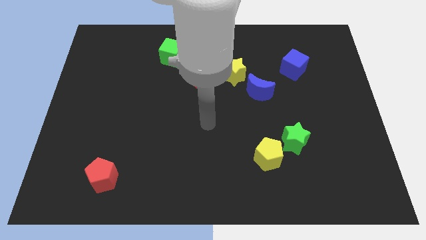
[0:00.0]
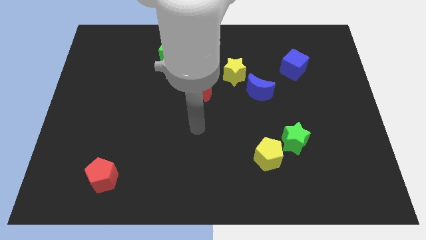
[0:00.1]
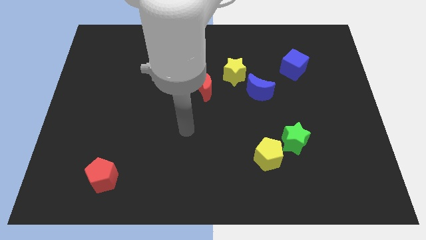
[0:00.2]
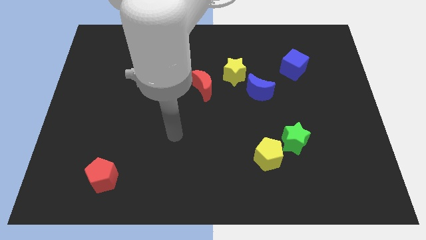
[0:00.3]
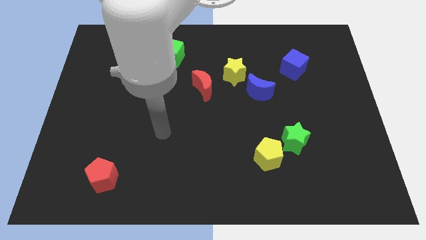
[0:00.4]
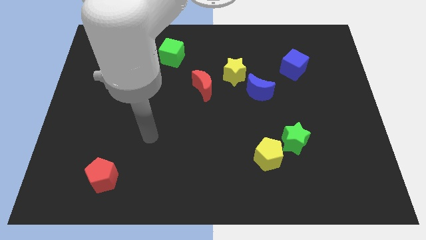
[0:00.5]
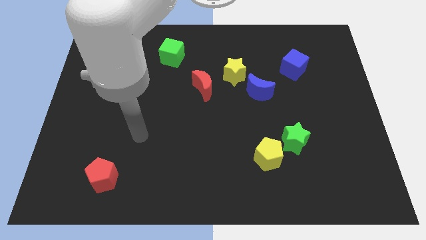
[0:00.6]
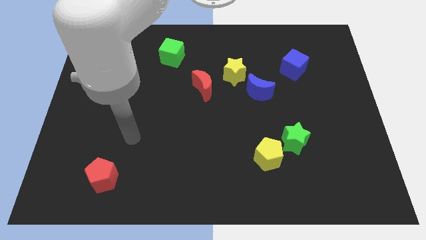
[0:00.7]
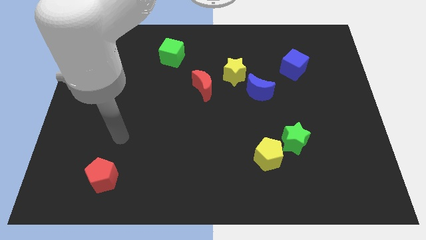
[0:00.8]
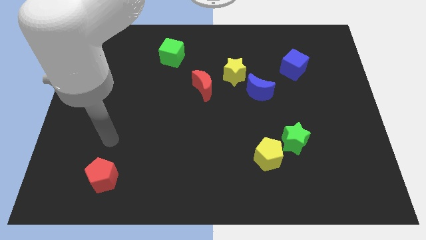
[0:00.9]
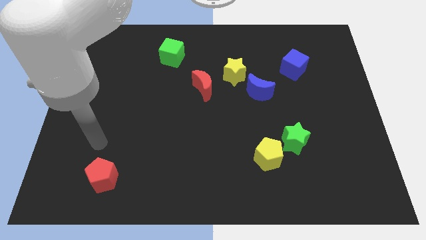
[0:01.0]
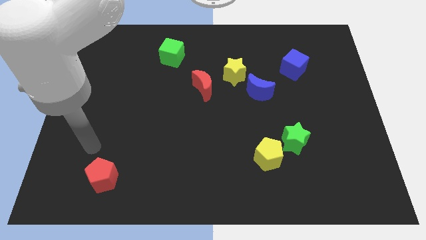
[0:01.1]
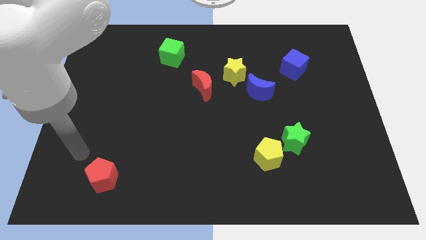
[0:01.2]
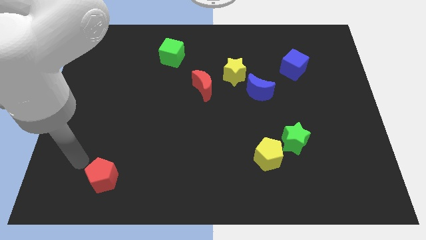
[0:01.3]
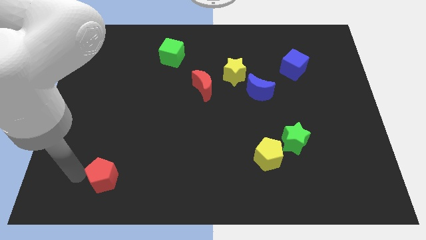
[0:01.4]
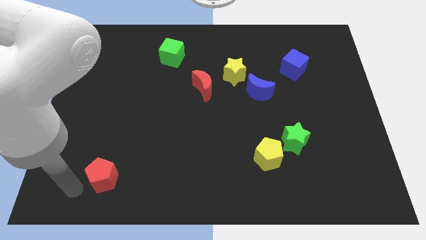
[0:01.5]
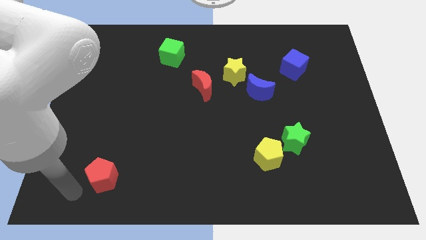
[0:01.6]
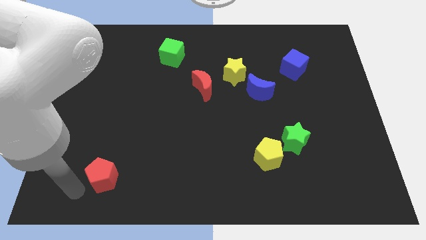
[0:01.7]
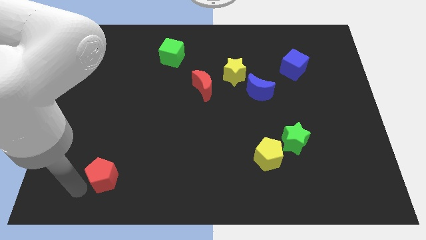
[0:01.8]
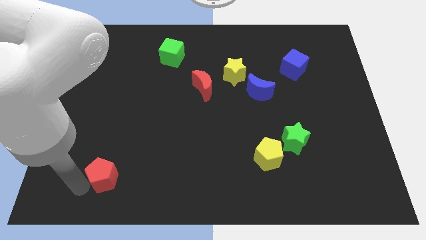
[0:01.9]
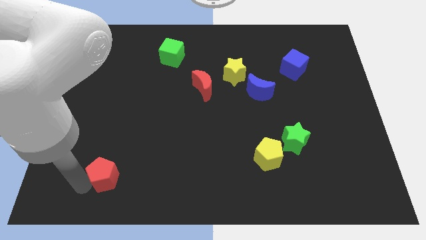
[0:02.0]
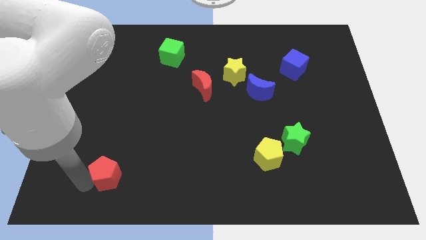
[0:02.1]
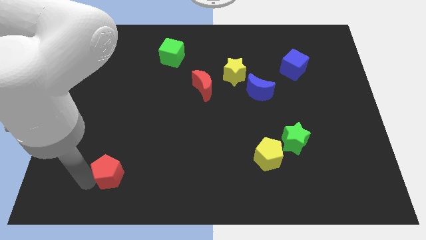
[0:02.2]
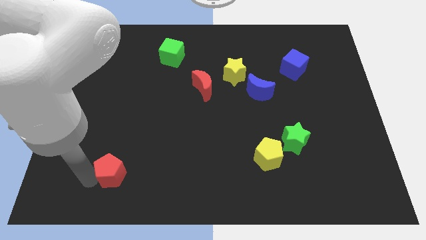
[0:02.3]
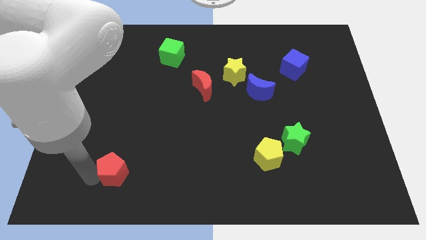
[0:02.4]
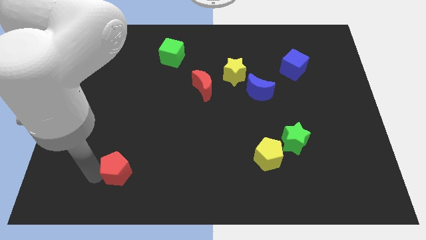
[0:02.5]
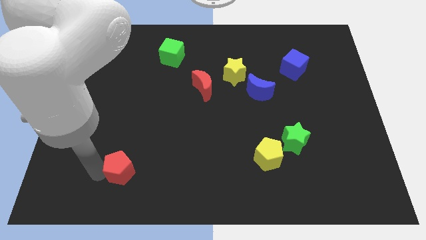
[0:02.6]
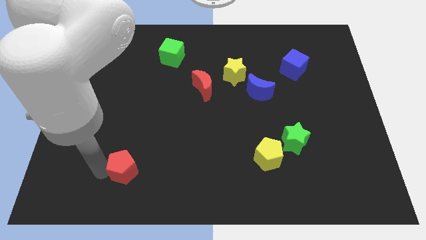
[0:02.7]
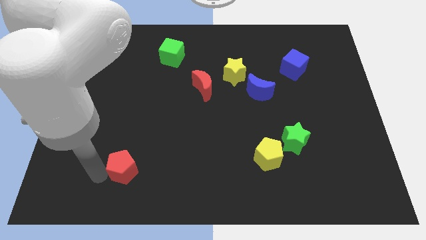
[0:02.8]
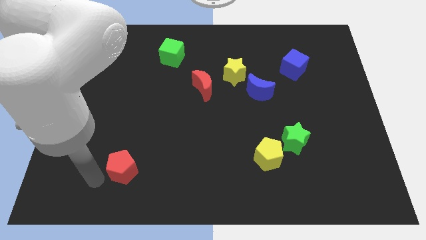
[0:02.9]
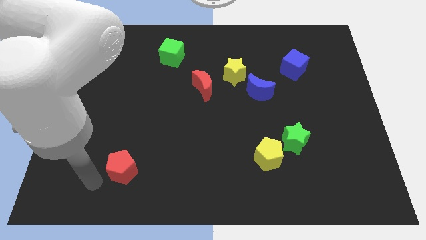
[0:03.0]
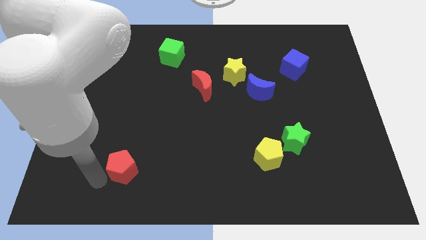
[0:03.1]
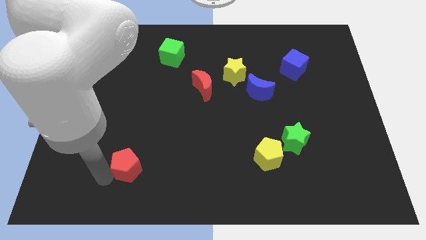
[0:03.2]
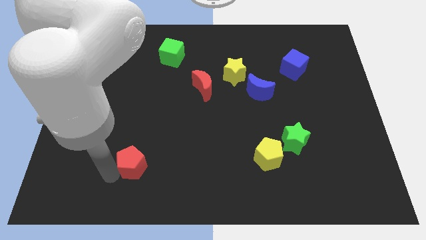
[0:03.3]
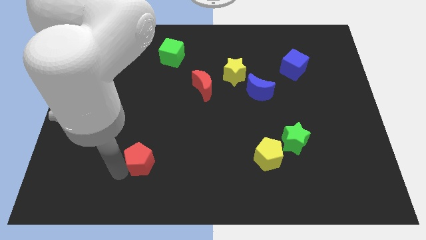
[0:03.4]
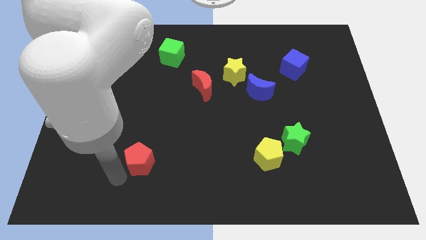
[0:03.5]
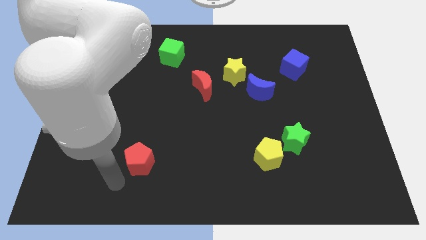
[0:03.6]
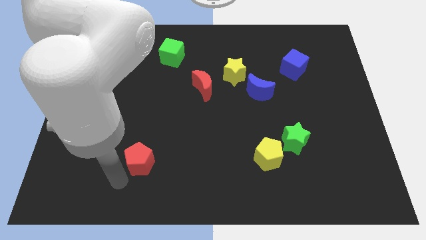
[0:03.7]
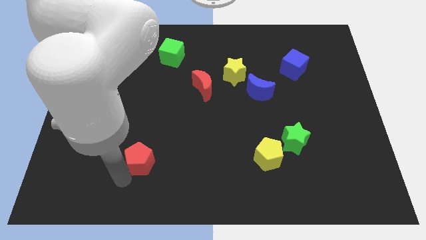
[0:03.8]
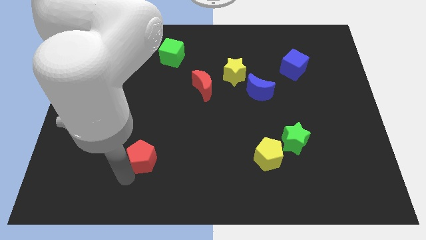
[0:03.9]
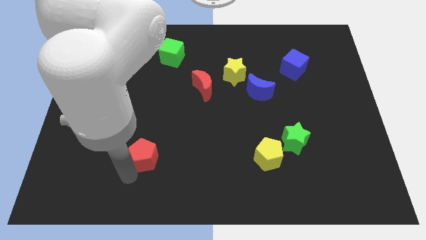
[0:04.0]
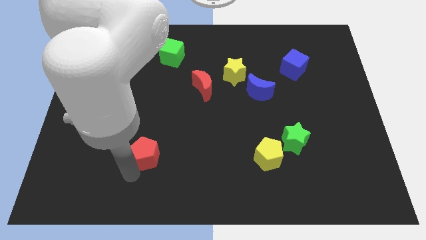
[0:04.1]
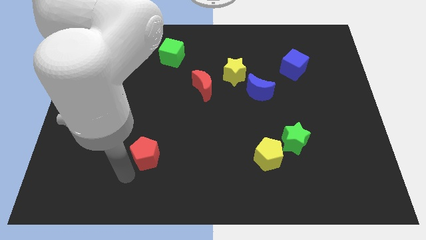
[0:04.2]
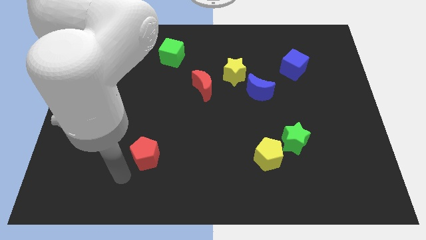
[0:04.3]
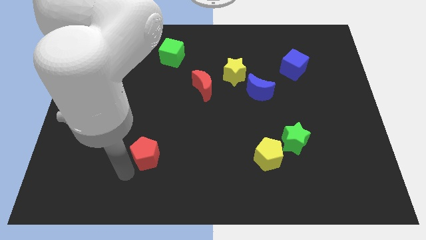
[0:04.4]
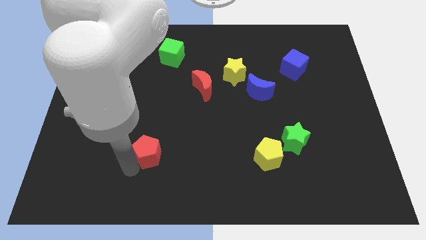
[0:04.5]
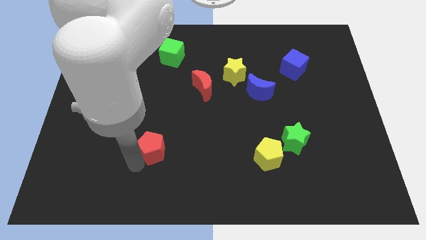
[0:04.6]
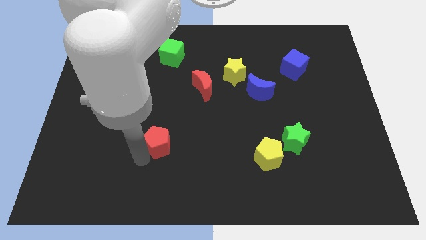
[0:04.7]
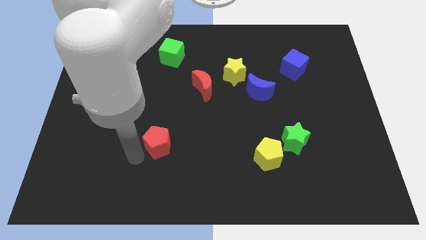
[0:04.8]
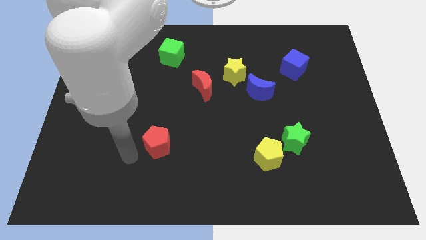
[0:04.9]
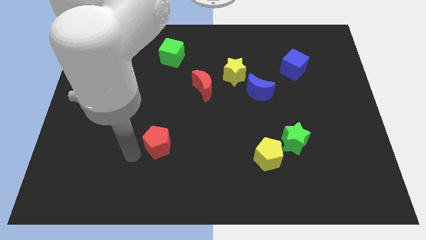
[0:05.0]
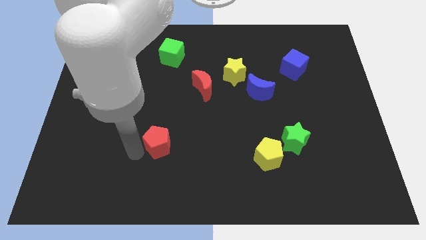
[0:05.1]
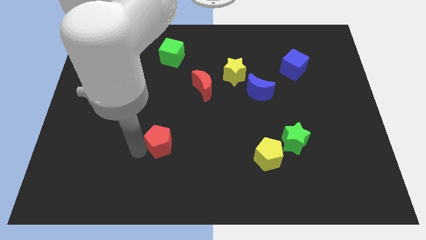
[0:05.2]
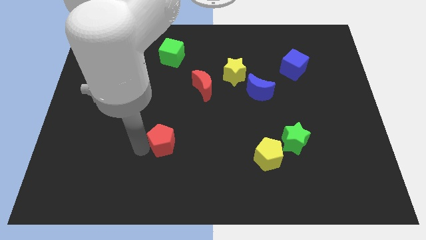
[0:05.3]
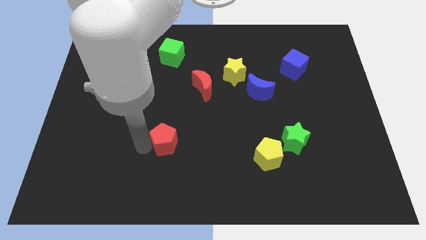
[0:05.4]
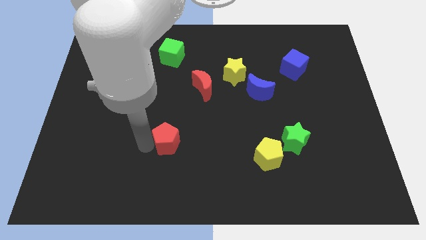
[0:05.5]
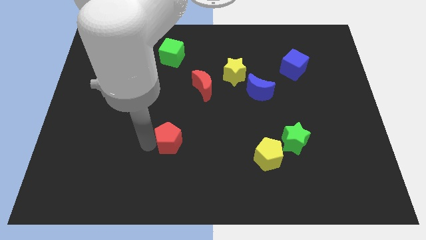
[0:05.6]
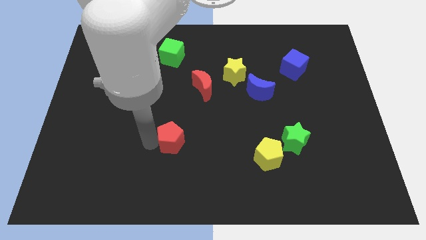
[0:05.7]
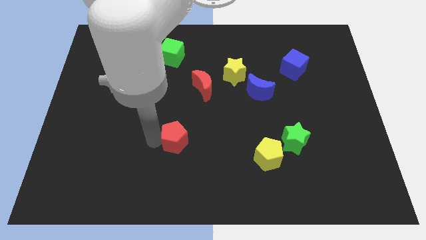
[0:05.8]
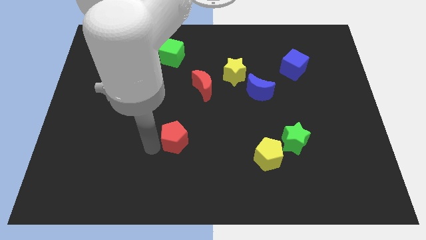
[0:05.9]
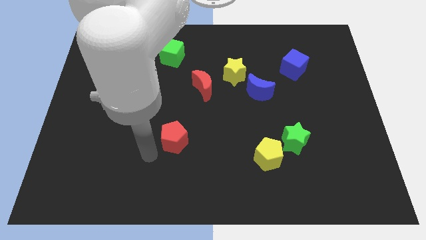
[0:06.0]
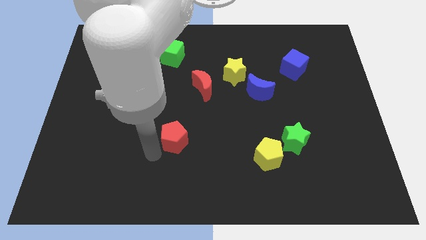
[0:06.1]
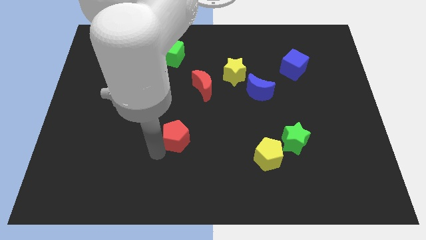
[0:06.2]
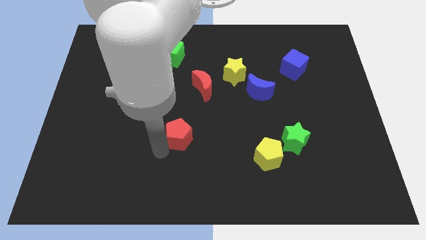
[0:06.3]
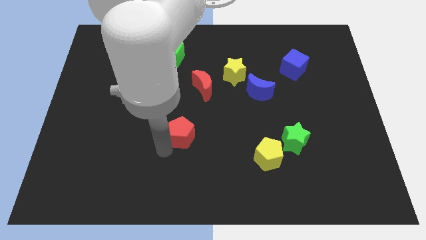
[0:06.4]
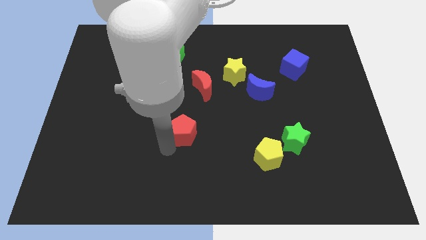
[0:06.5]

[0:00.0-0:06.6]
slide the red pentagon below the red moon

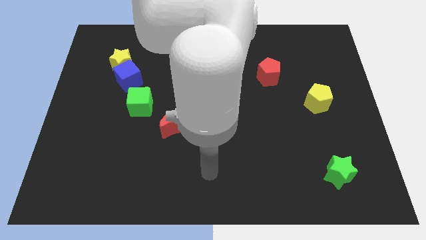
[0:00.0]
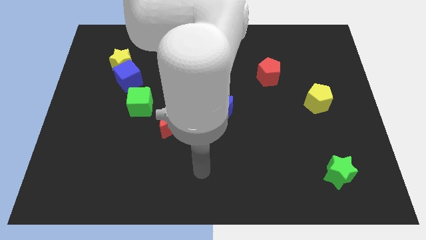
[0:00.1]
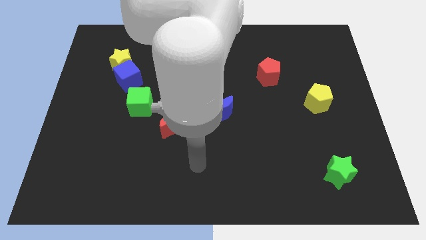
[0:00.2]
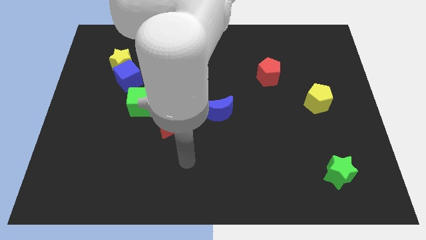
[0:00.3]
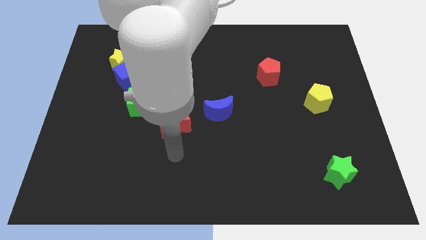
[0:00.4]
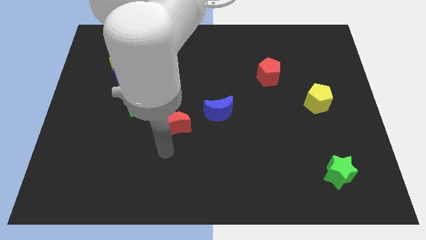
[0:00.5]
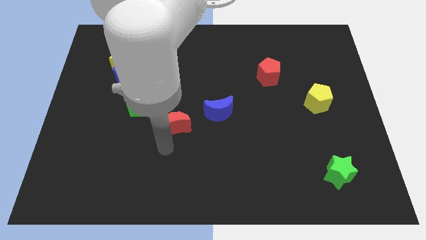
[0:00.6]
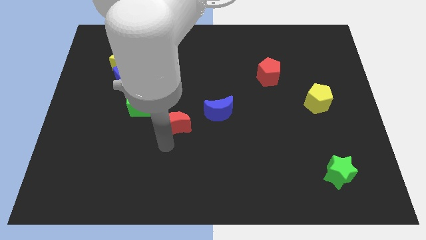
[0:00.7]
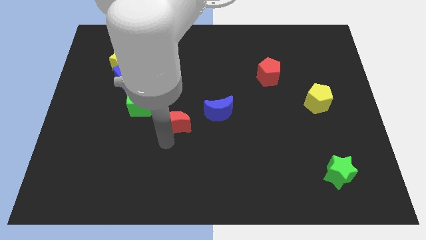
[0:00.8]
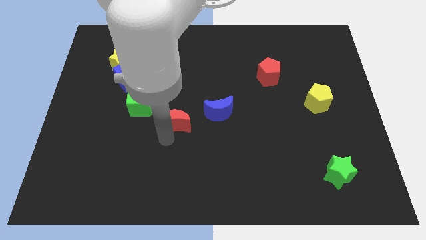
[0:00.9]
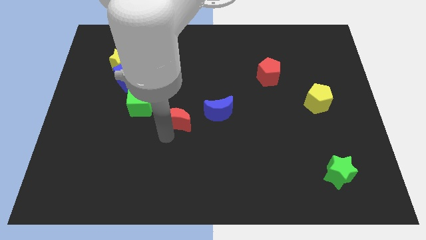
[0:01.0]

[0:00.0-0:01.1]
slide the red moon to the right side of the green cube
